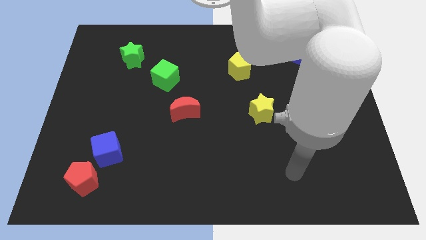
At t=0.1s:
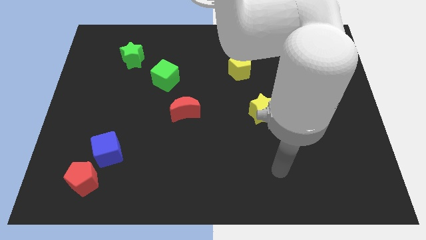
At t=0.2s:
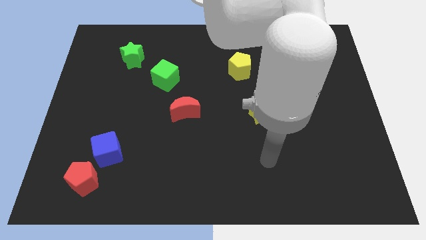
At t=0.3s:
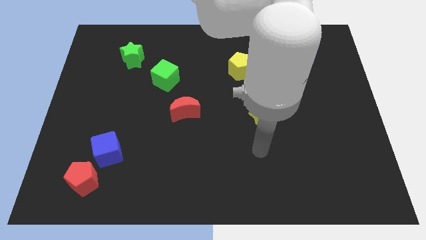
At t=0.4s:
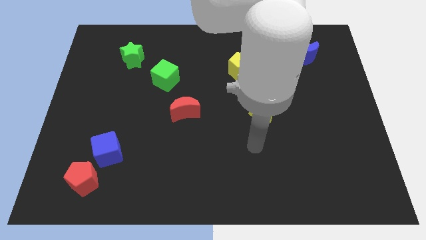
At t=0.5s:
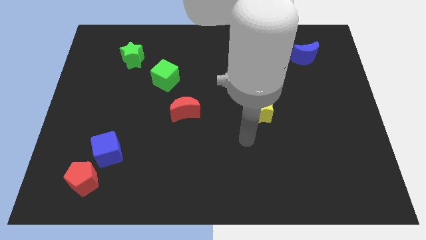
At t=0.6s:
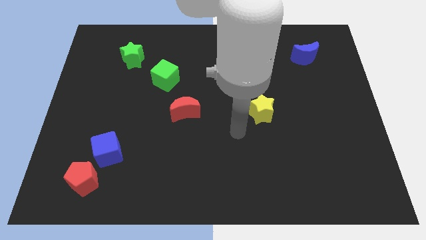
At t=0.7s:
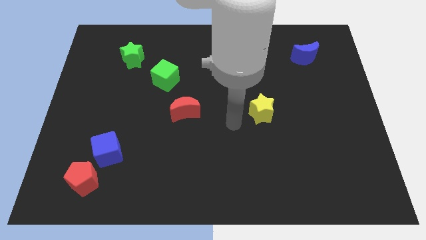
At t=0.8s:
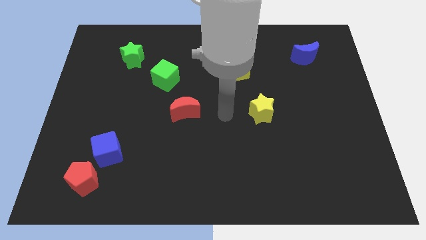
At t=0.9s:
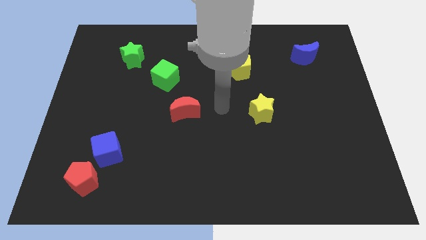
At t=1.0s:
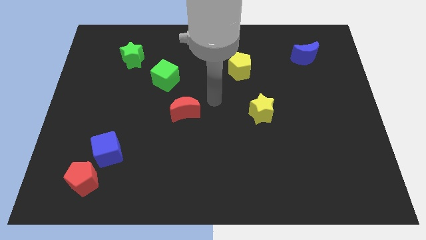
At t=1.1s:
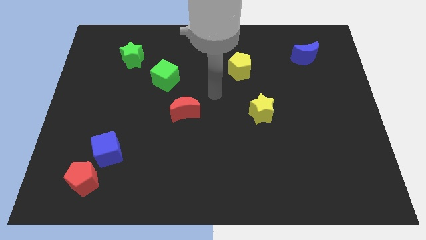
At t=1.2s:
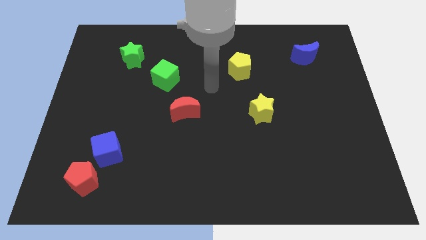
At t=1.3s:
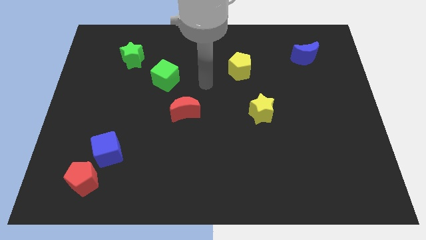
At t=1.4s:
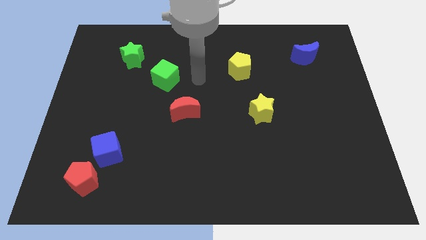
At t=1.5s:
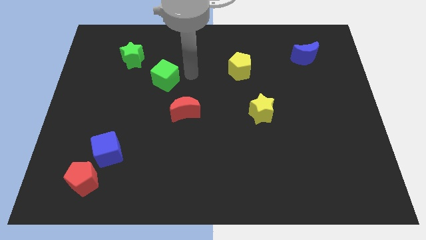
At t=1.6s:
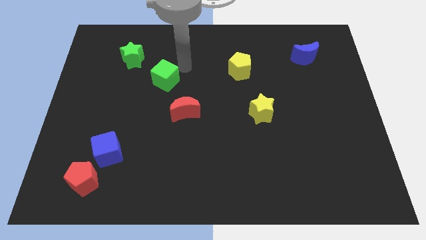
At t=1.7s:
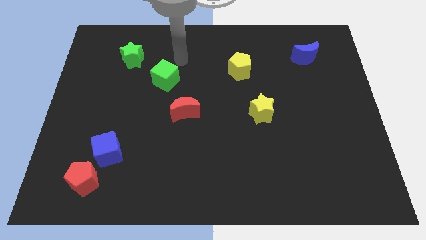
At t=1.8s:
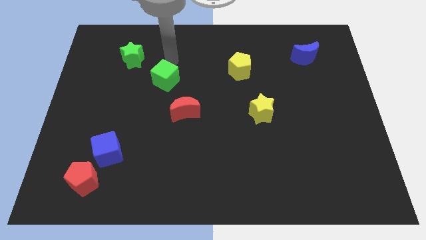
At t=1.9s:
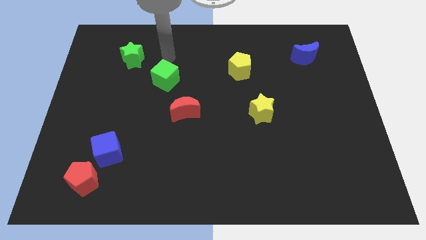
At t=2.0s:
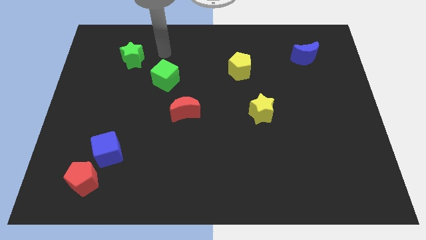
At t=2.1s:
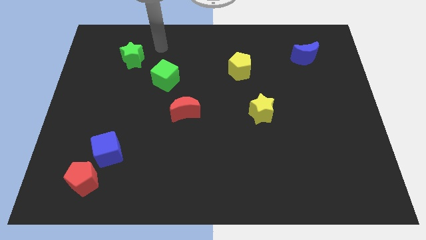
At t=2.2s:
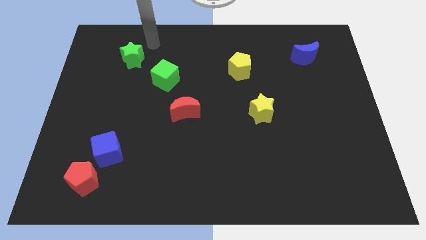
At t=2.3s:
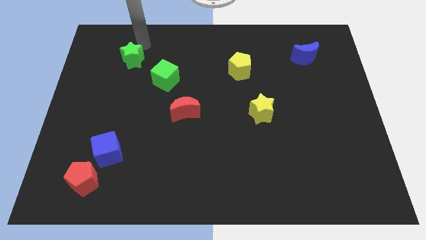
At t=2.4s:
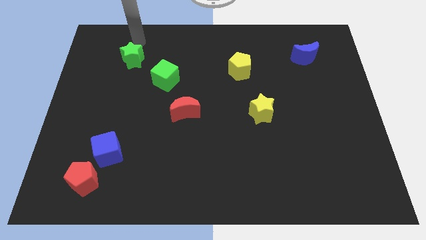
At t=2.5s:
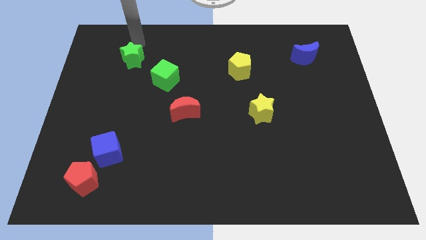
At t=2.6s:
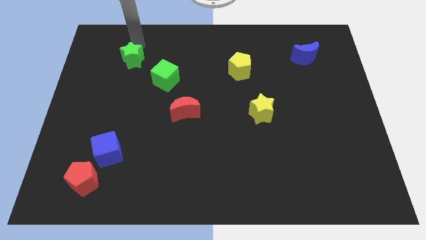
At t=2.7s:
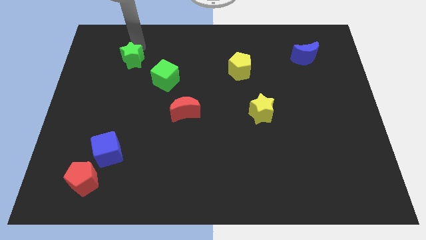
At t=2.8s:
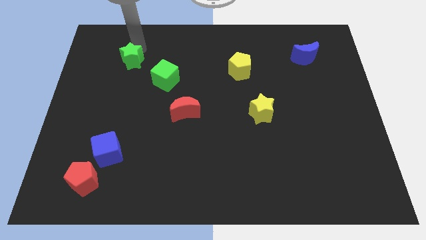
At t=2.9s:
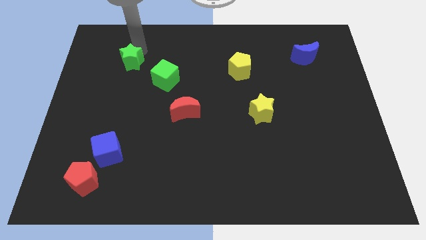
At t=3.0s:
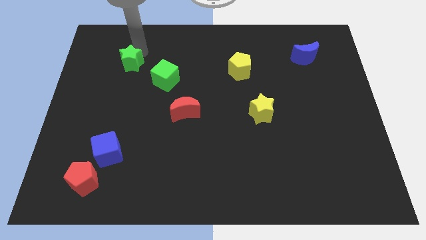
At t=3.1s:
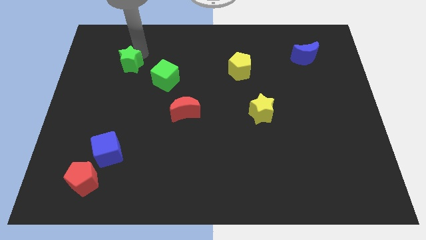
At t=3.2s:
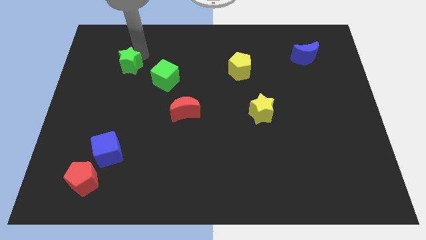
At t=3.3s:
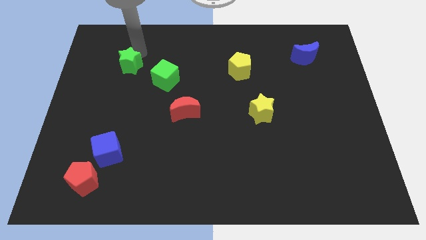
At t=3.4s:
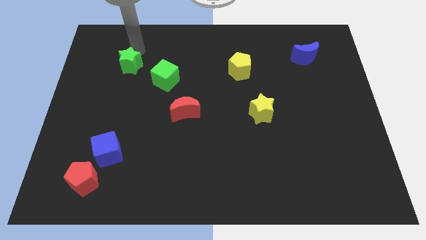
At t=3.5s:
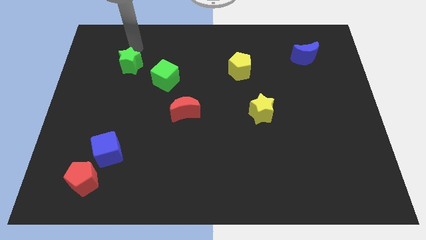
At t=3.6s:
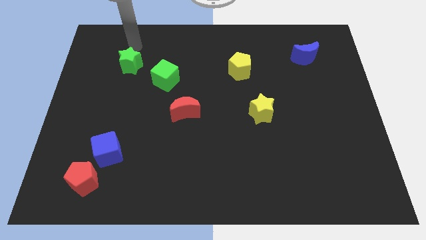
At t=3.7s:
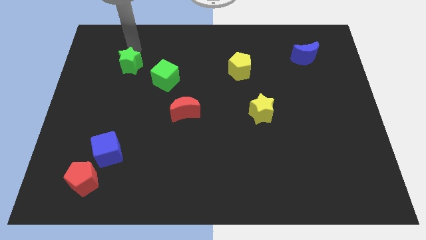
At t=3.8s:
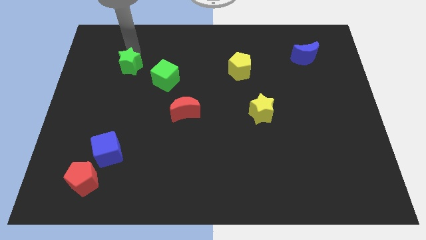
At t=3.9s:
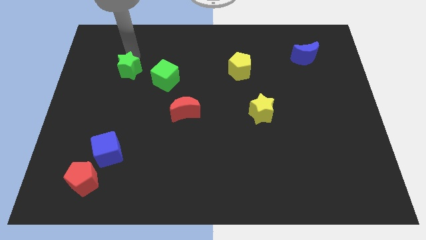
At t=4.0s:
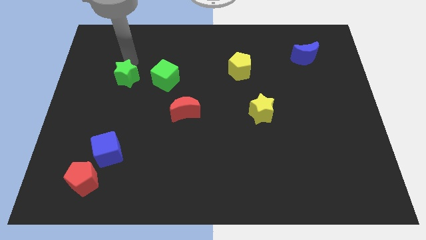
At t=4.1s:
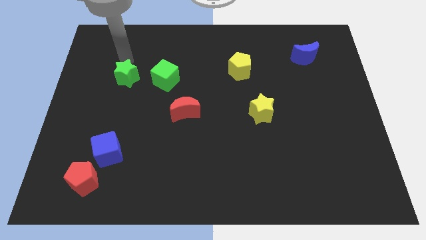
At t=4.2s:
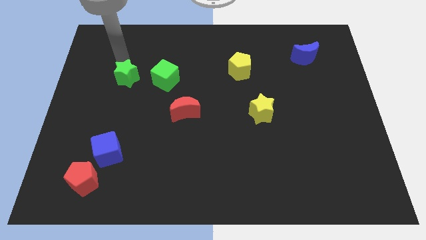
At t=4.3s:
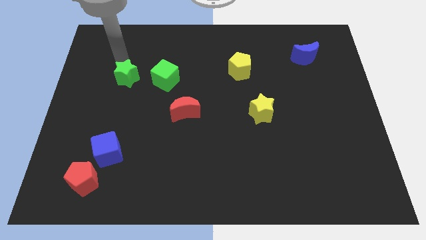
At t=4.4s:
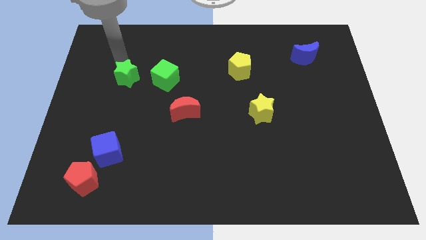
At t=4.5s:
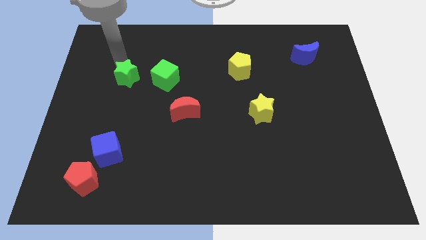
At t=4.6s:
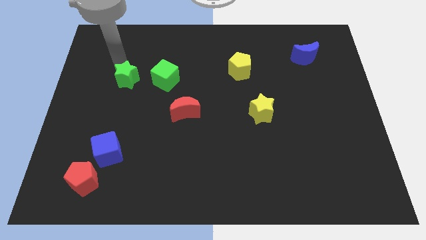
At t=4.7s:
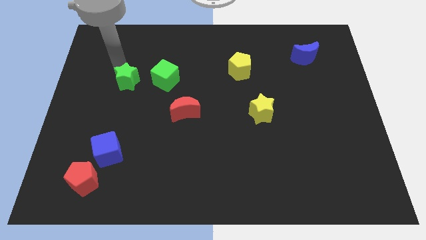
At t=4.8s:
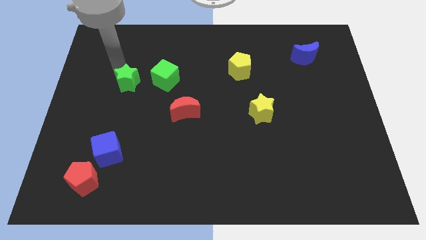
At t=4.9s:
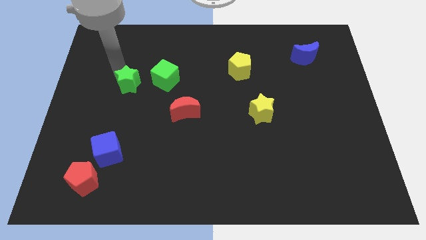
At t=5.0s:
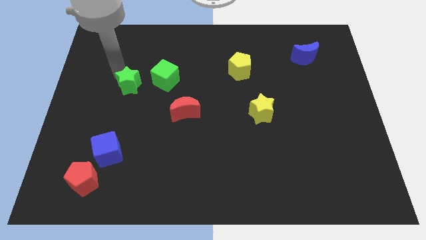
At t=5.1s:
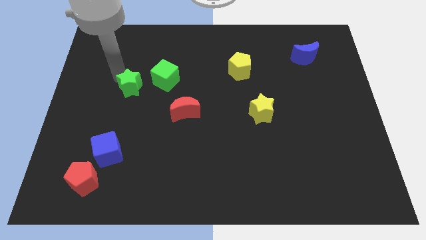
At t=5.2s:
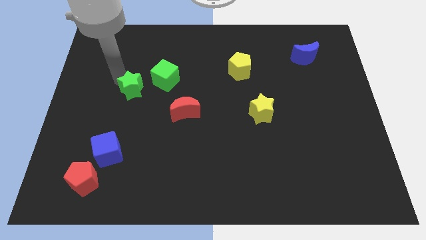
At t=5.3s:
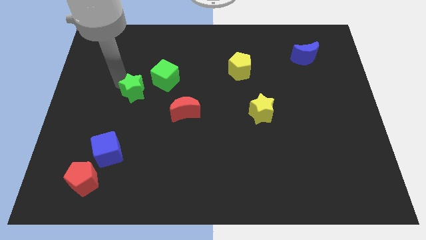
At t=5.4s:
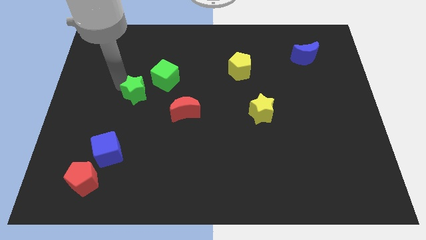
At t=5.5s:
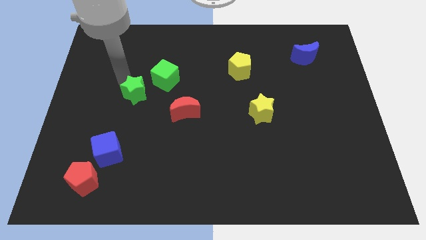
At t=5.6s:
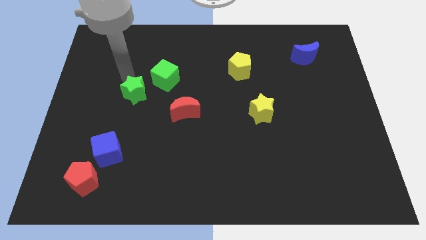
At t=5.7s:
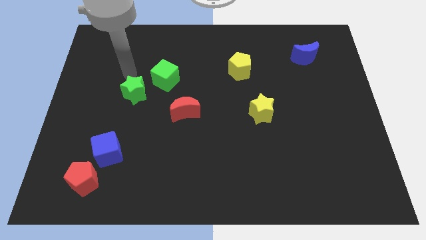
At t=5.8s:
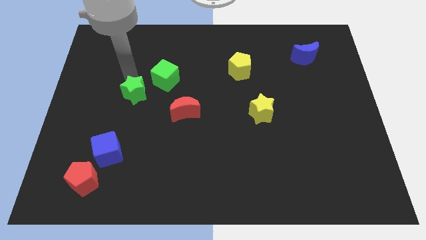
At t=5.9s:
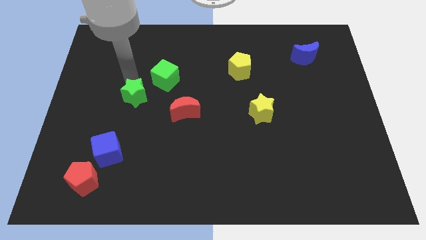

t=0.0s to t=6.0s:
slide the green star just left of the red moon

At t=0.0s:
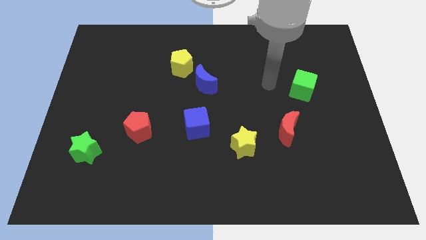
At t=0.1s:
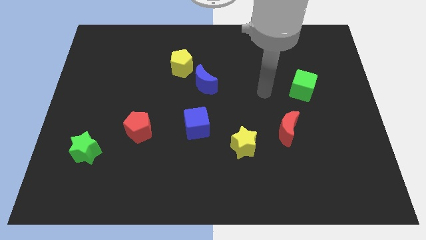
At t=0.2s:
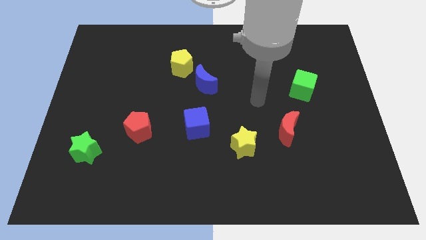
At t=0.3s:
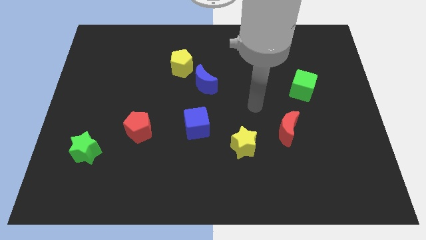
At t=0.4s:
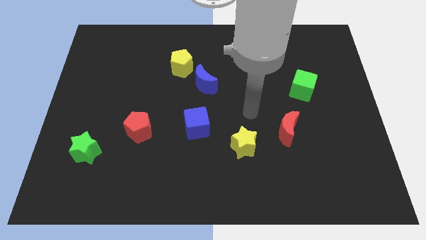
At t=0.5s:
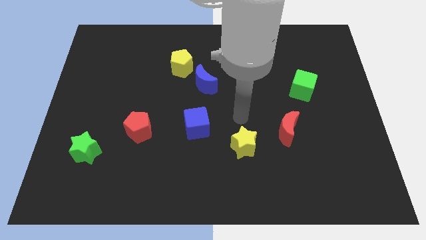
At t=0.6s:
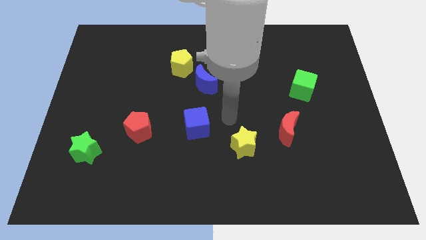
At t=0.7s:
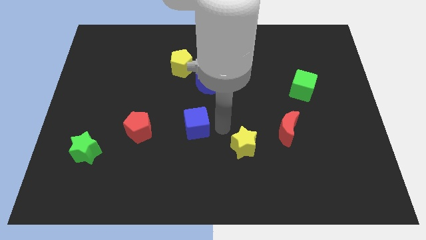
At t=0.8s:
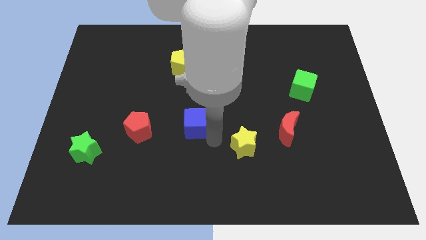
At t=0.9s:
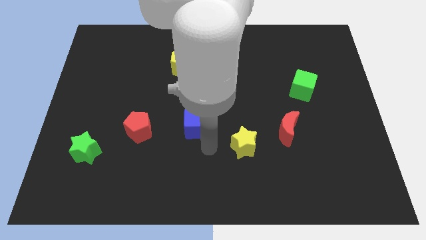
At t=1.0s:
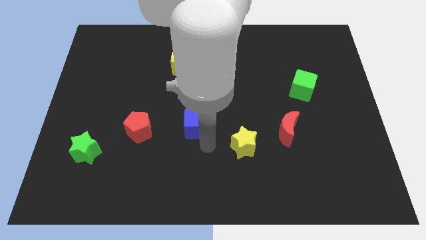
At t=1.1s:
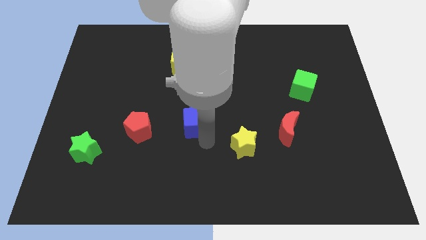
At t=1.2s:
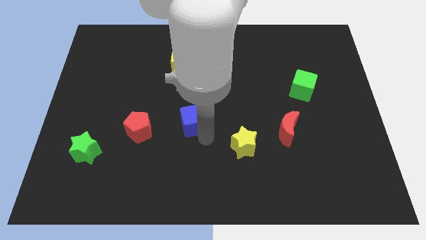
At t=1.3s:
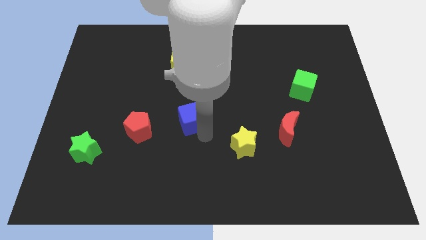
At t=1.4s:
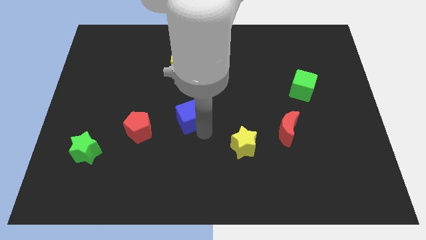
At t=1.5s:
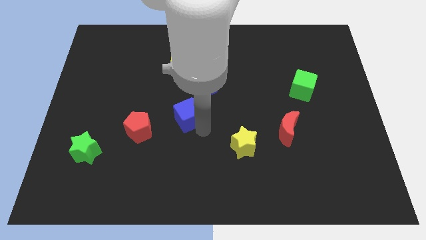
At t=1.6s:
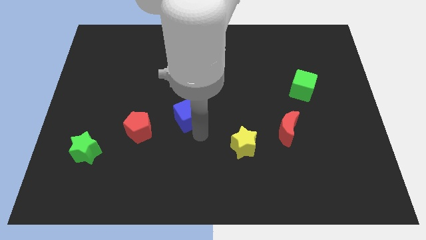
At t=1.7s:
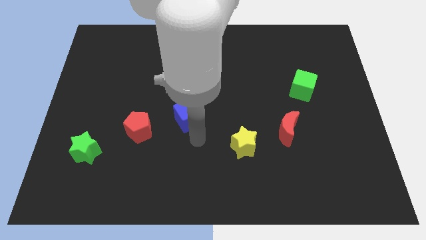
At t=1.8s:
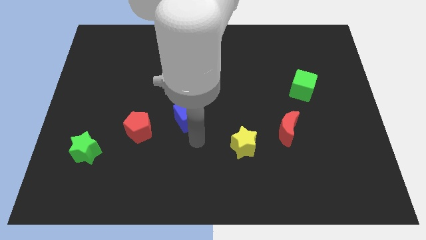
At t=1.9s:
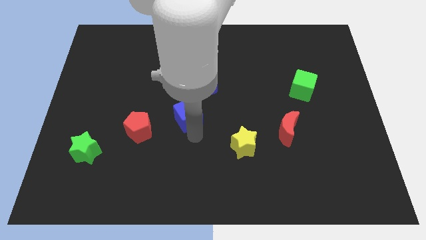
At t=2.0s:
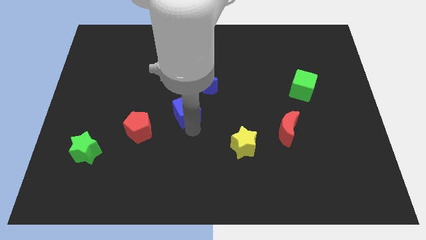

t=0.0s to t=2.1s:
put the blue cube to the bottom left of the blue moon
